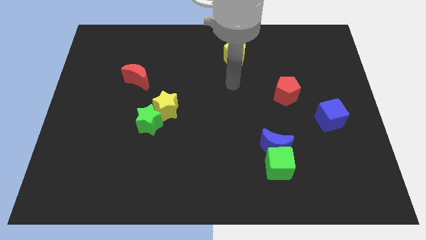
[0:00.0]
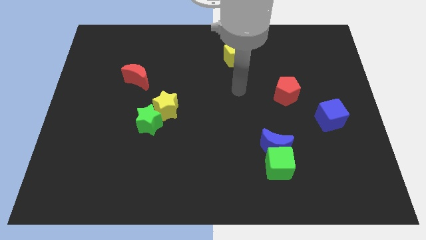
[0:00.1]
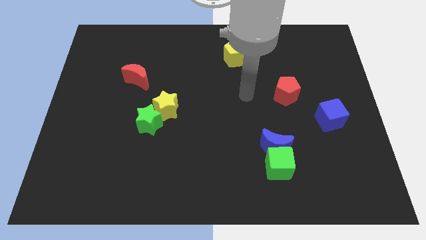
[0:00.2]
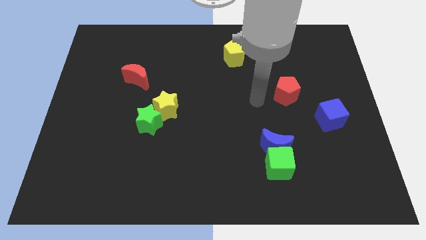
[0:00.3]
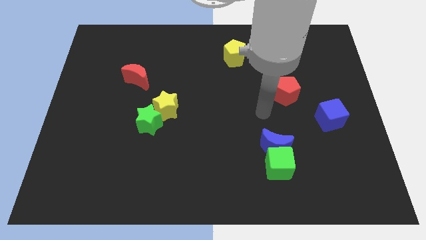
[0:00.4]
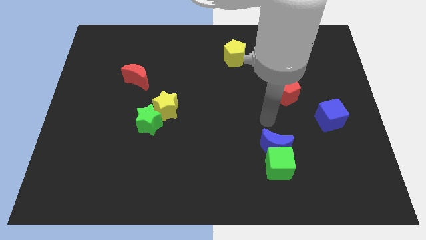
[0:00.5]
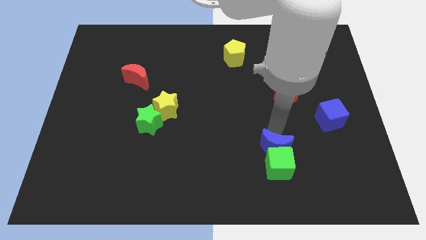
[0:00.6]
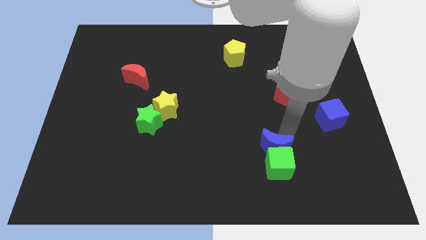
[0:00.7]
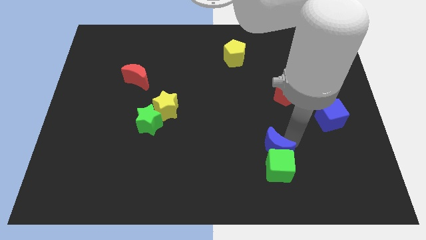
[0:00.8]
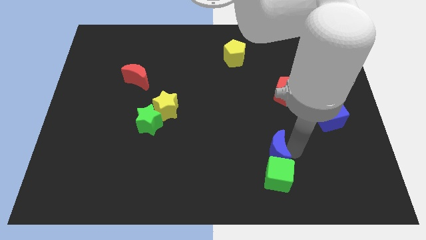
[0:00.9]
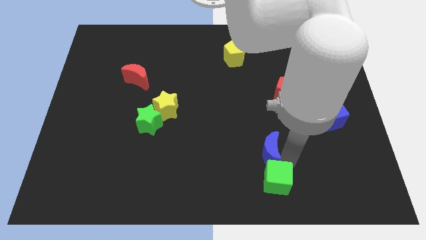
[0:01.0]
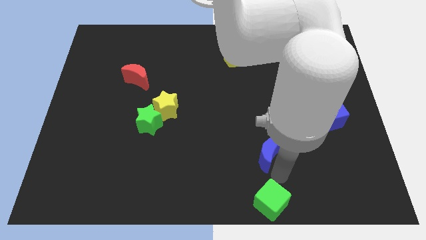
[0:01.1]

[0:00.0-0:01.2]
pull the blue moon apart from the green cube

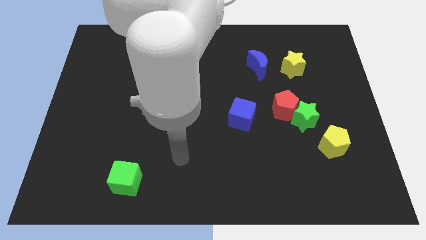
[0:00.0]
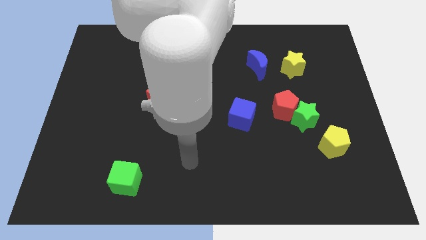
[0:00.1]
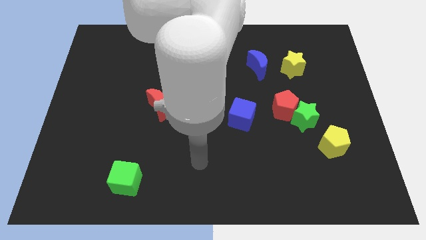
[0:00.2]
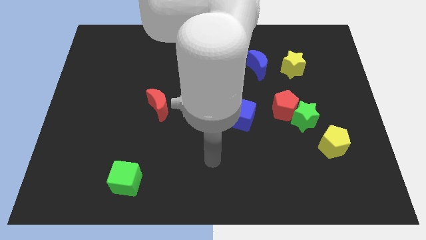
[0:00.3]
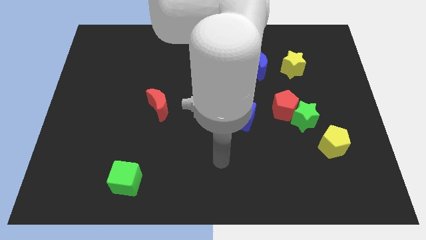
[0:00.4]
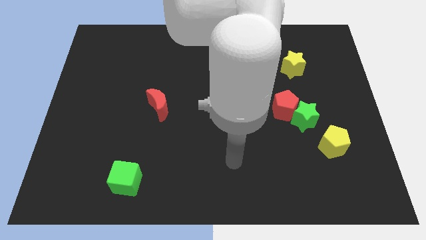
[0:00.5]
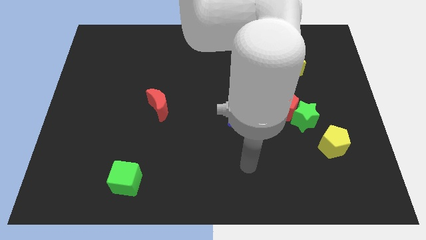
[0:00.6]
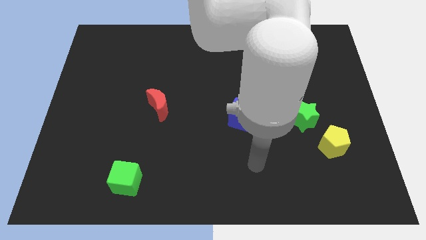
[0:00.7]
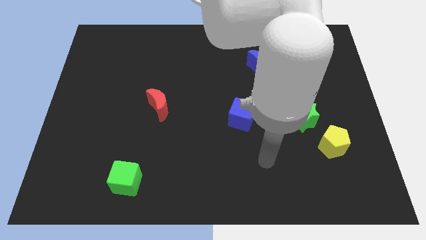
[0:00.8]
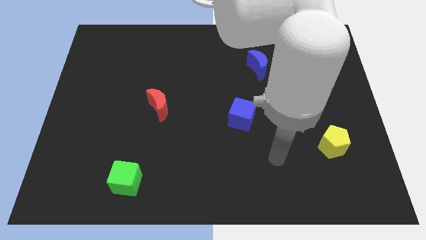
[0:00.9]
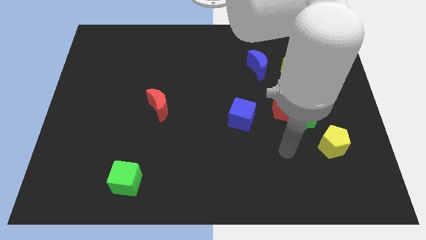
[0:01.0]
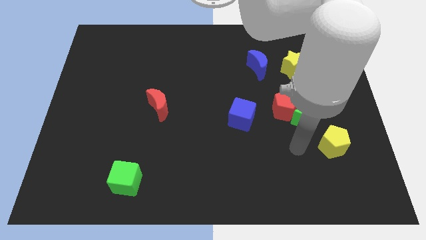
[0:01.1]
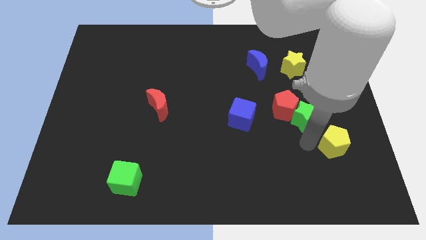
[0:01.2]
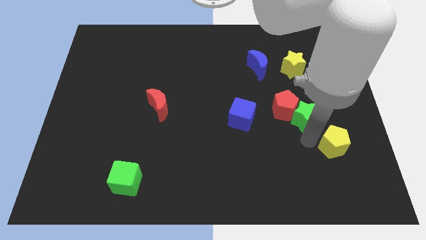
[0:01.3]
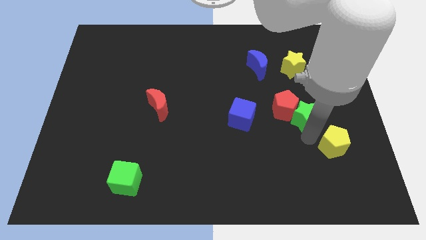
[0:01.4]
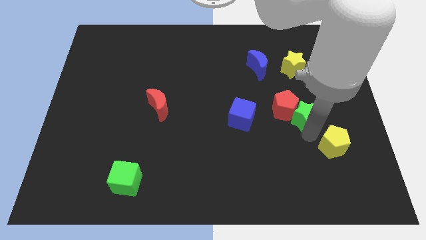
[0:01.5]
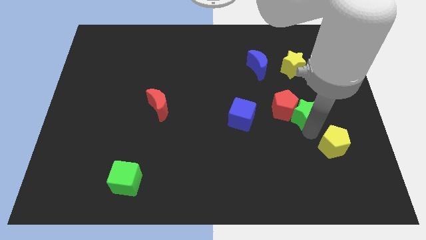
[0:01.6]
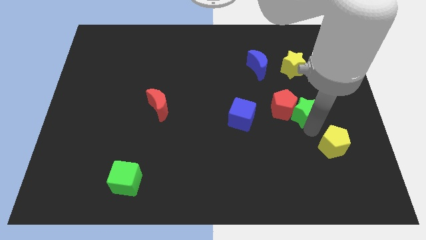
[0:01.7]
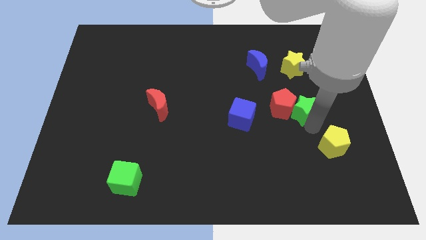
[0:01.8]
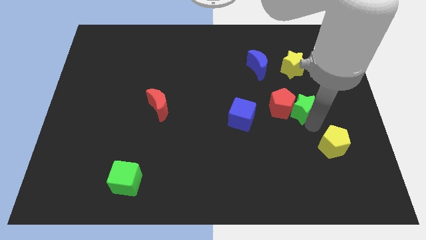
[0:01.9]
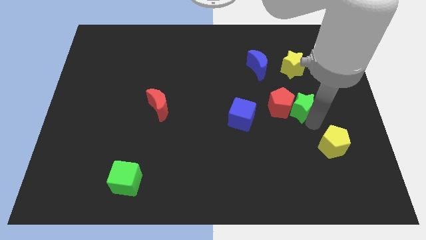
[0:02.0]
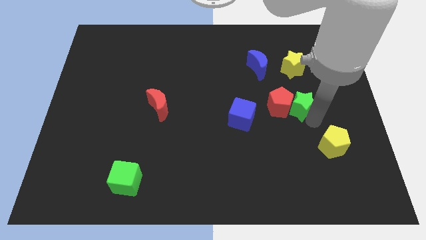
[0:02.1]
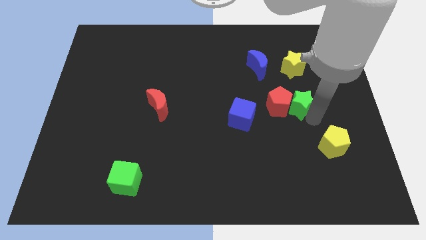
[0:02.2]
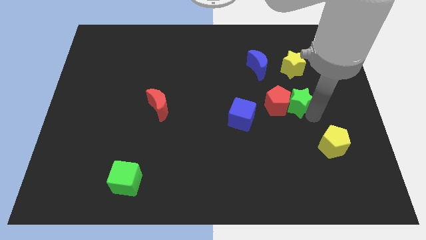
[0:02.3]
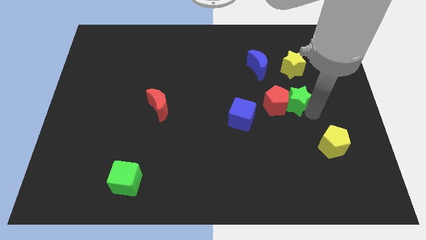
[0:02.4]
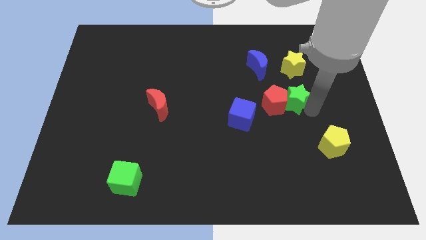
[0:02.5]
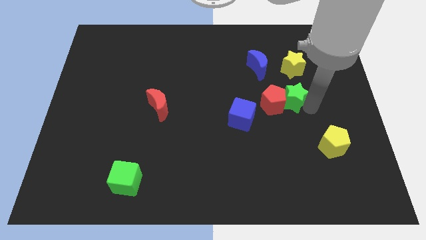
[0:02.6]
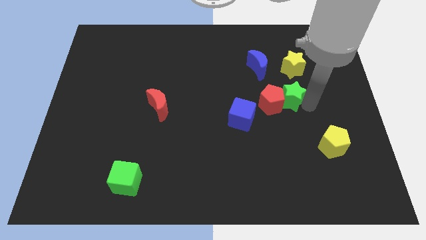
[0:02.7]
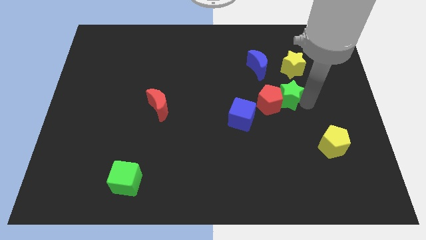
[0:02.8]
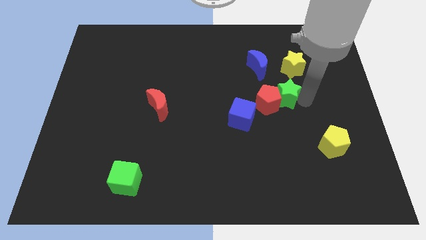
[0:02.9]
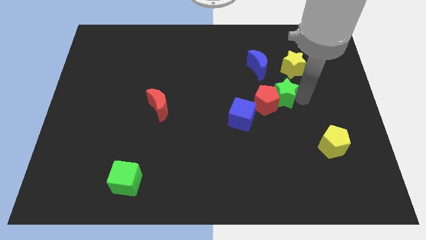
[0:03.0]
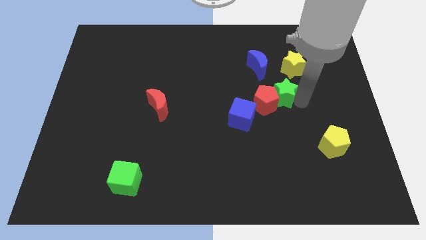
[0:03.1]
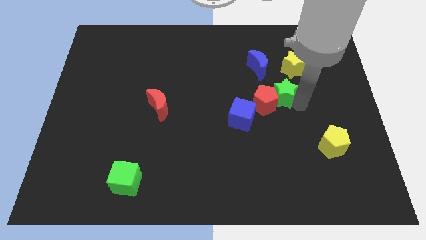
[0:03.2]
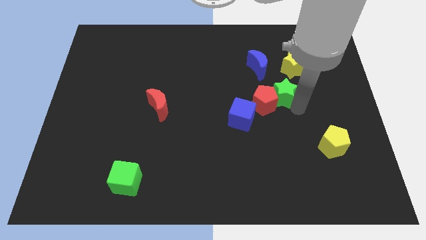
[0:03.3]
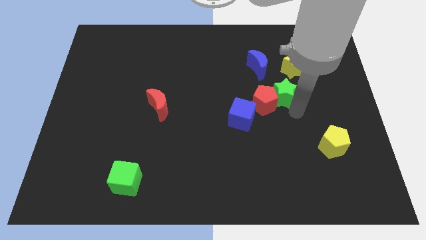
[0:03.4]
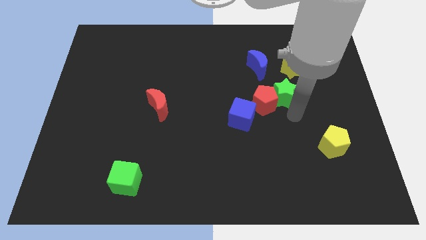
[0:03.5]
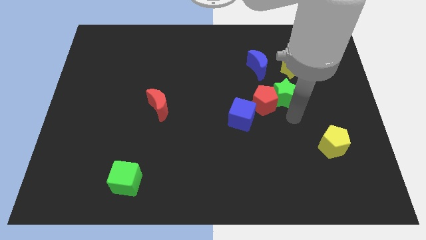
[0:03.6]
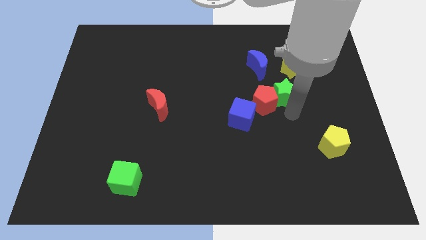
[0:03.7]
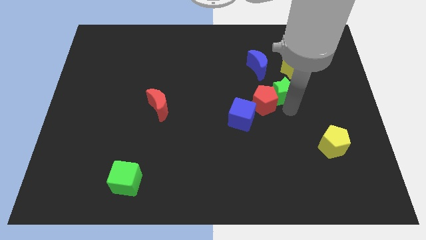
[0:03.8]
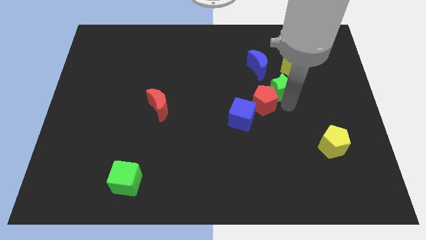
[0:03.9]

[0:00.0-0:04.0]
pull the green star apart from the red pentagon and yellow pentagon

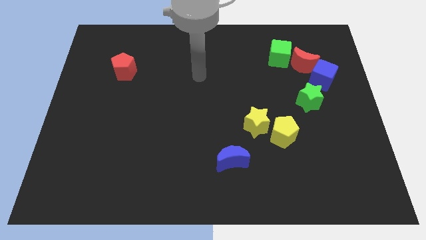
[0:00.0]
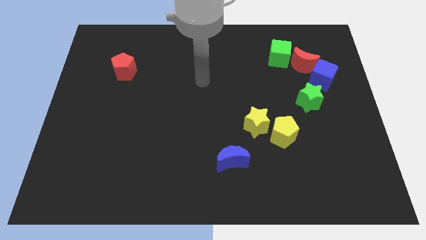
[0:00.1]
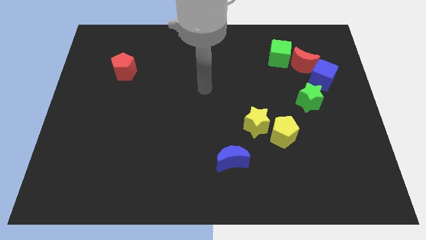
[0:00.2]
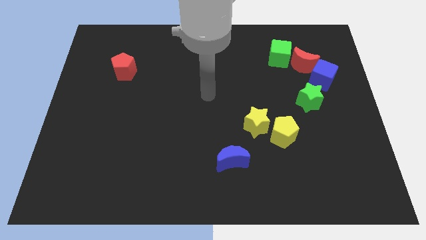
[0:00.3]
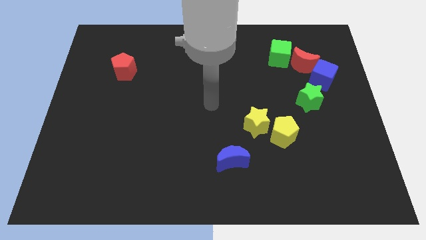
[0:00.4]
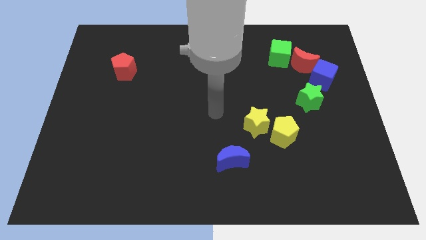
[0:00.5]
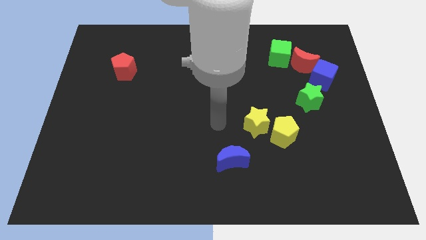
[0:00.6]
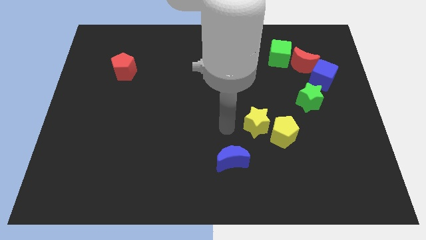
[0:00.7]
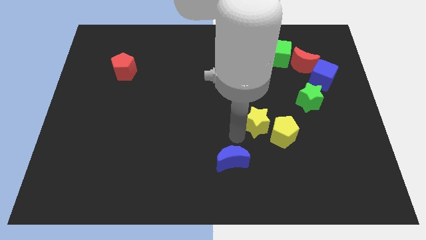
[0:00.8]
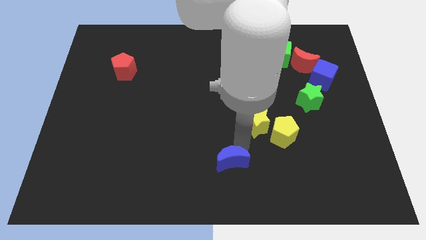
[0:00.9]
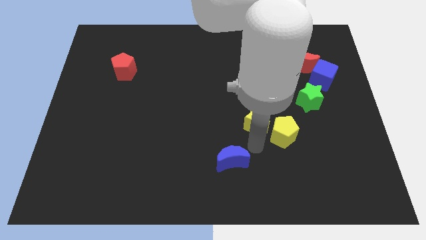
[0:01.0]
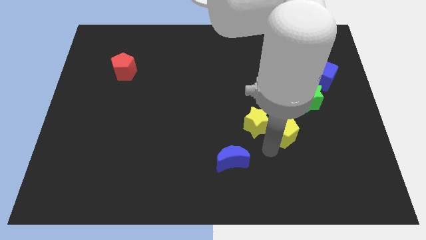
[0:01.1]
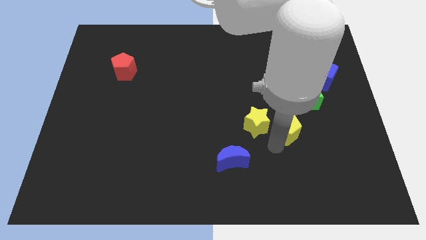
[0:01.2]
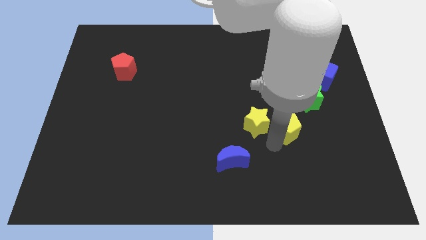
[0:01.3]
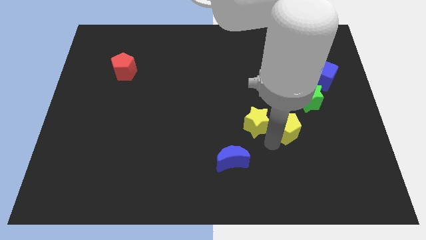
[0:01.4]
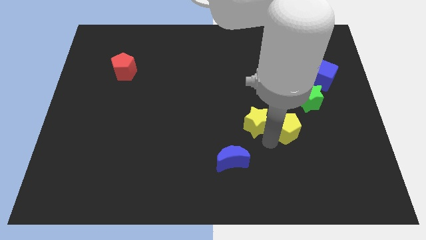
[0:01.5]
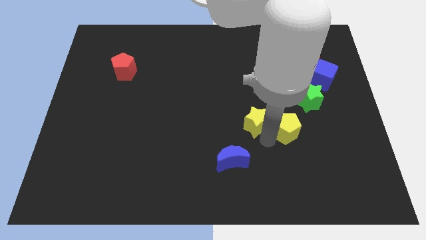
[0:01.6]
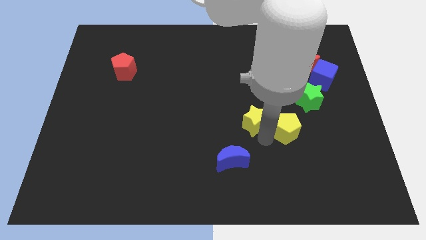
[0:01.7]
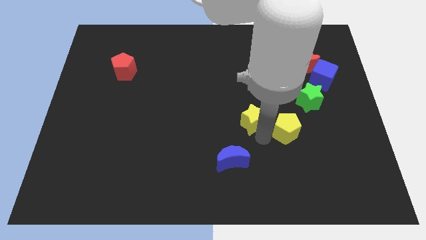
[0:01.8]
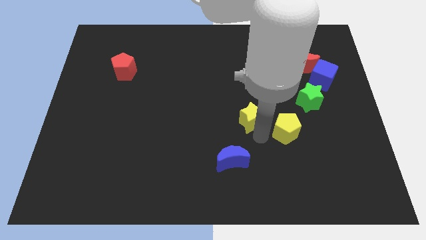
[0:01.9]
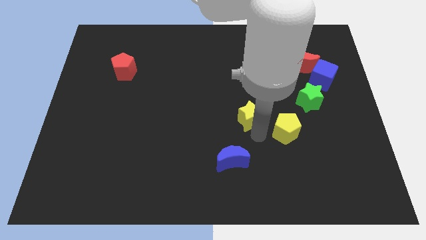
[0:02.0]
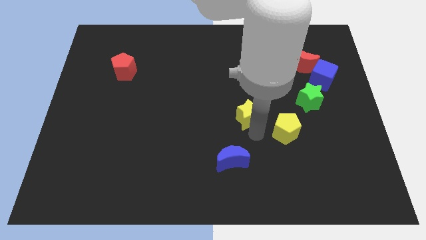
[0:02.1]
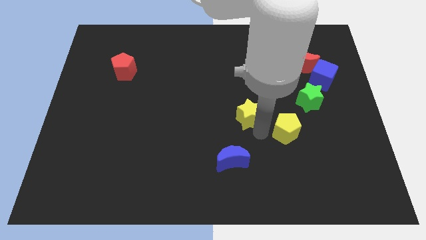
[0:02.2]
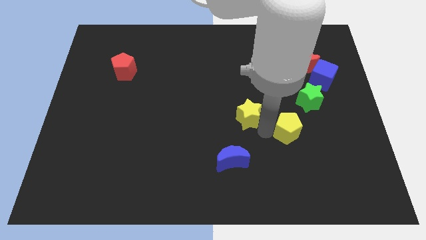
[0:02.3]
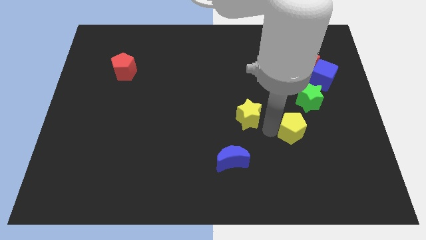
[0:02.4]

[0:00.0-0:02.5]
pull the yellow star apart from the yellow pentagon

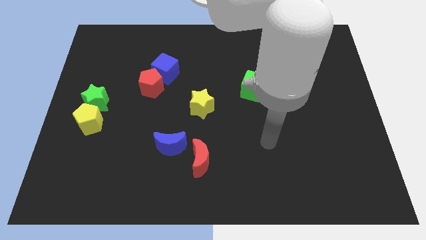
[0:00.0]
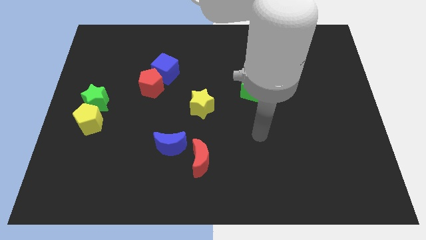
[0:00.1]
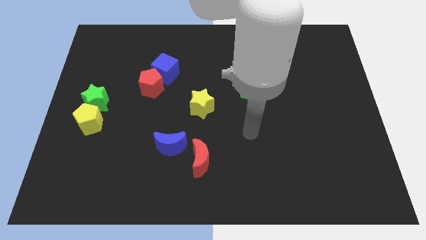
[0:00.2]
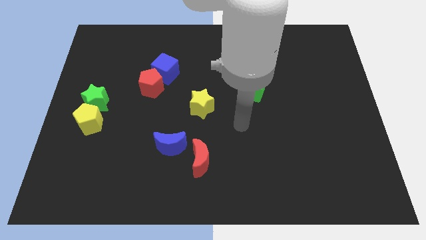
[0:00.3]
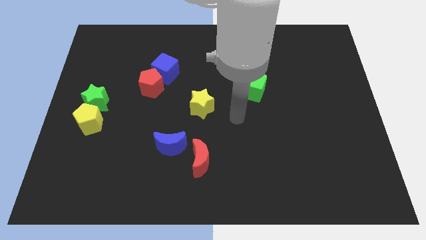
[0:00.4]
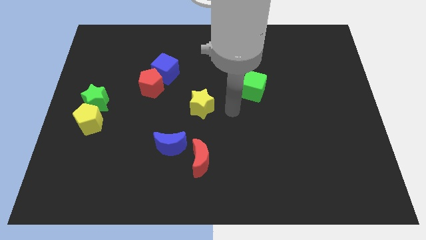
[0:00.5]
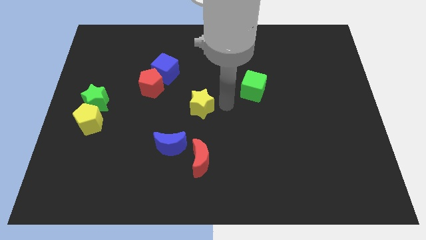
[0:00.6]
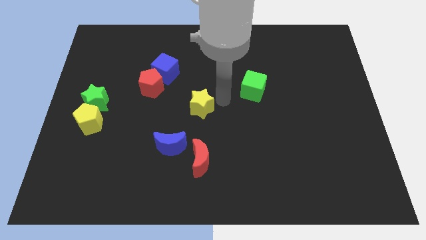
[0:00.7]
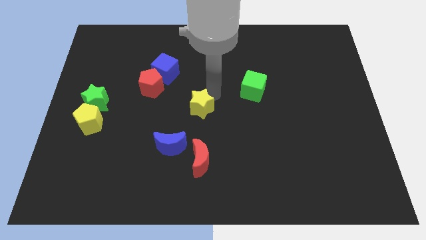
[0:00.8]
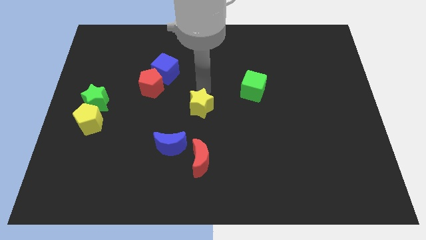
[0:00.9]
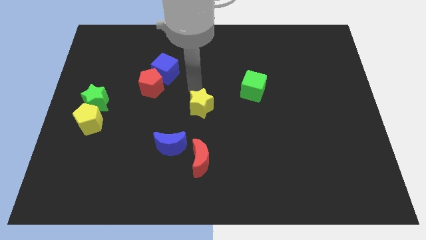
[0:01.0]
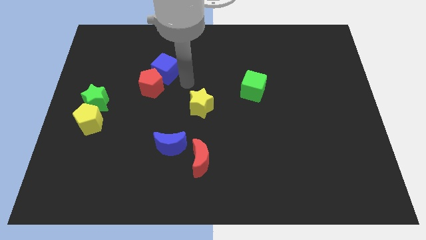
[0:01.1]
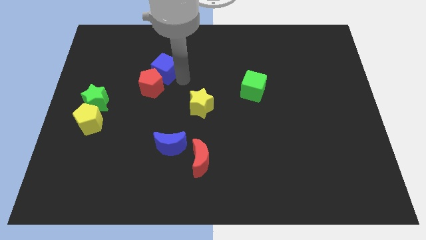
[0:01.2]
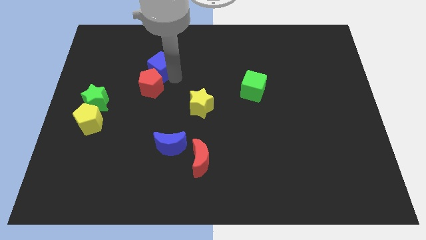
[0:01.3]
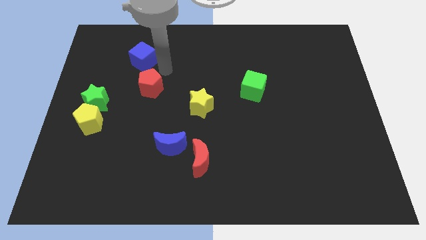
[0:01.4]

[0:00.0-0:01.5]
separate the red pentagon from the blue cube
